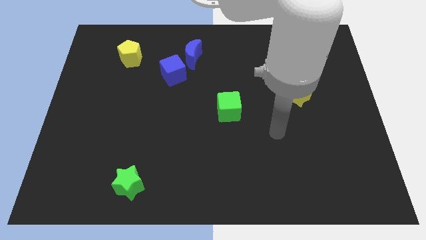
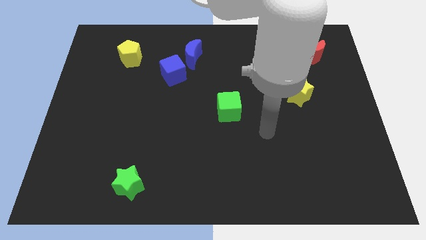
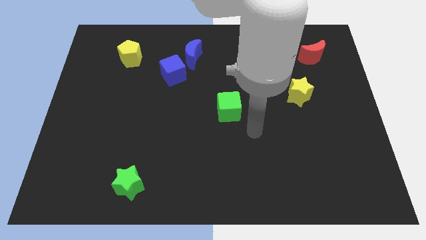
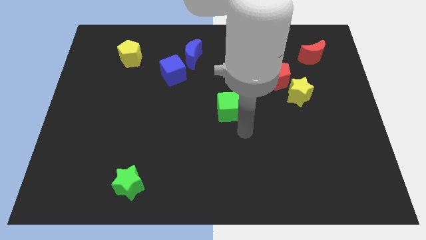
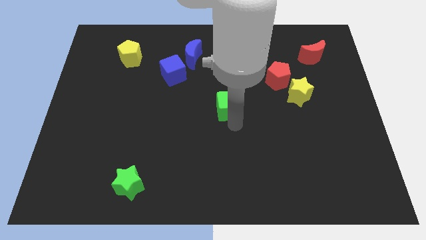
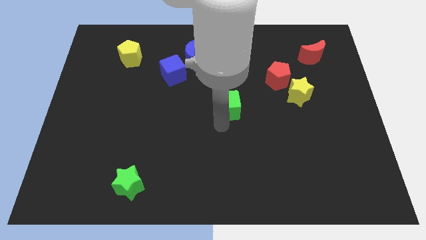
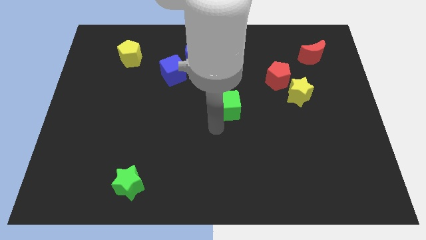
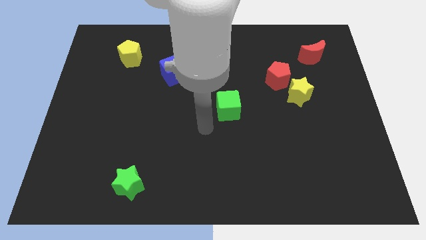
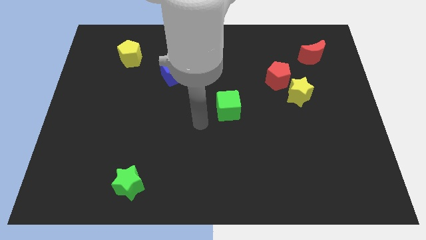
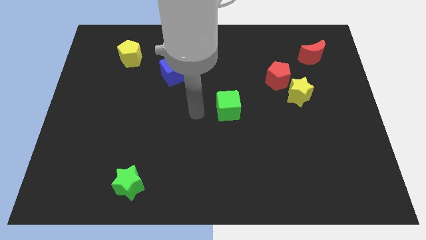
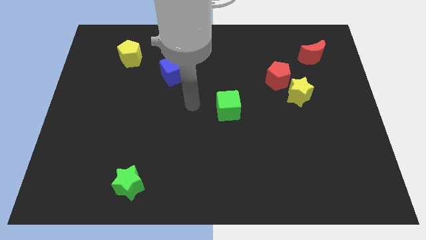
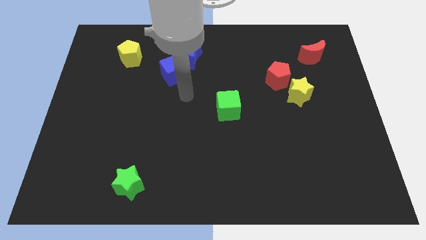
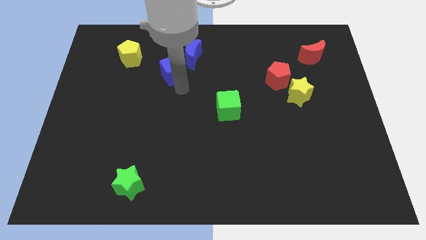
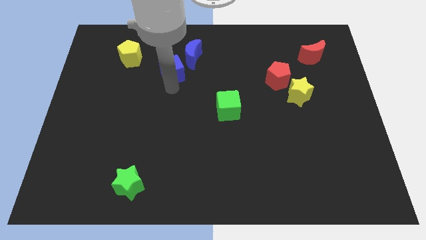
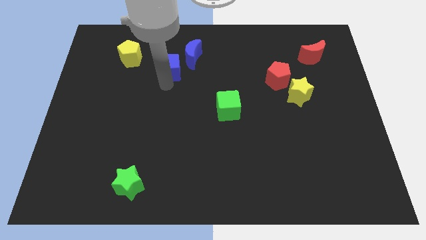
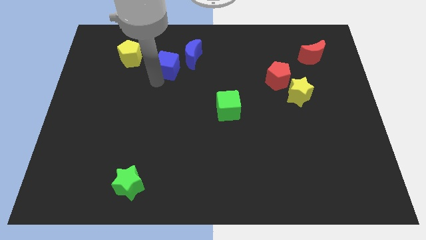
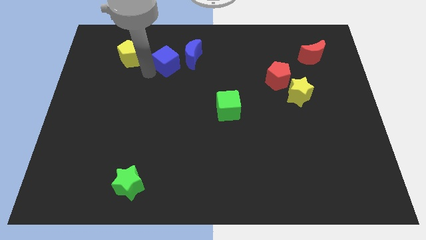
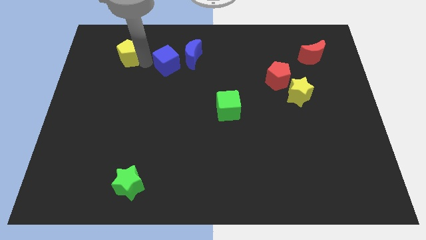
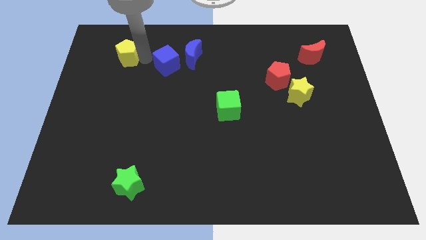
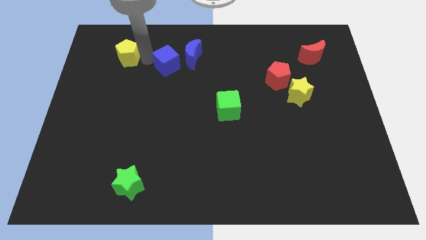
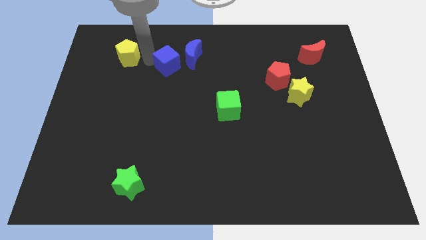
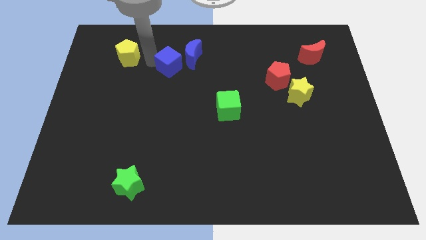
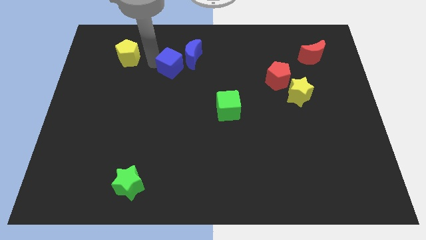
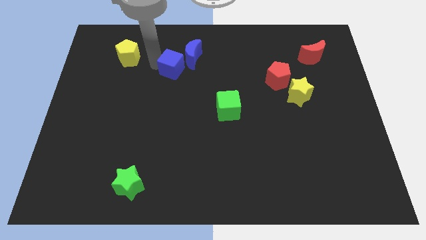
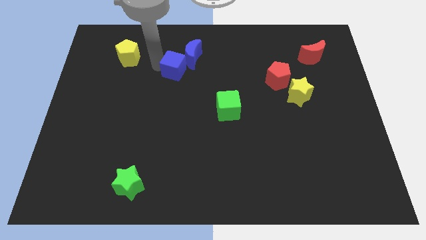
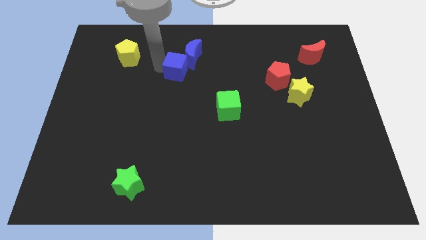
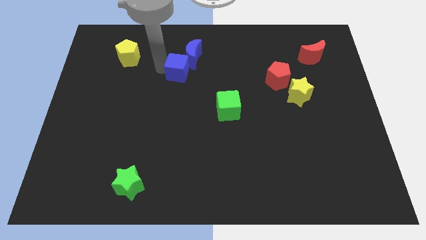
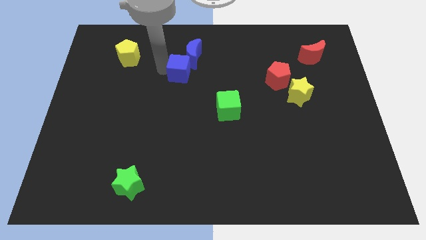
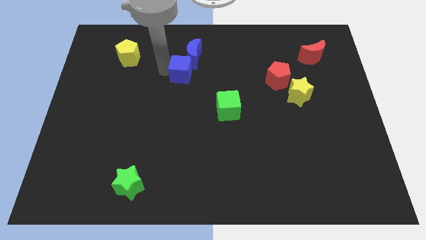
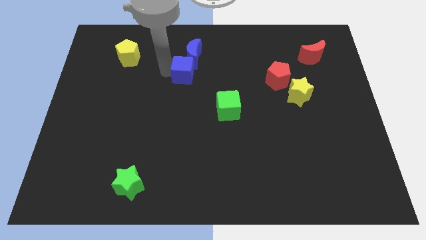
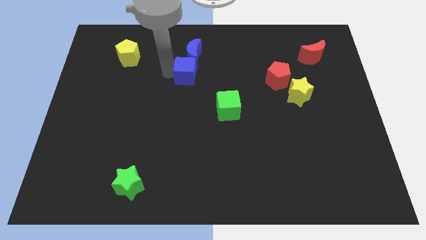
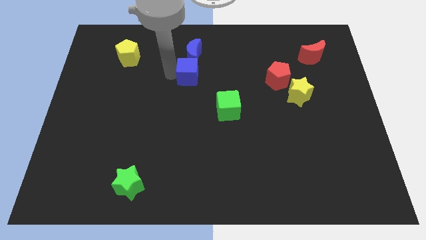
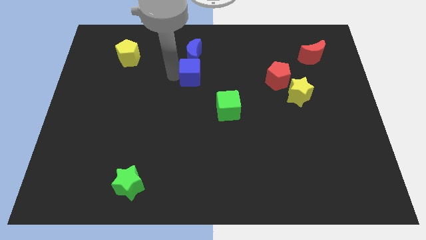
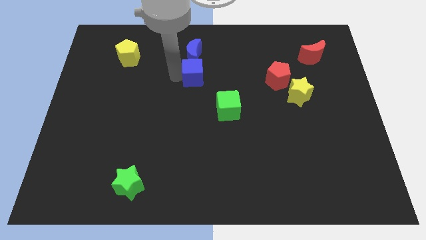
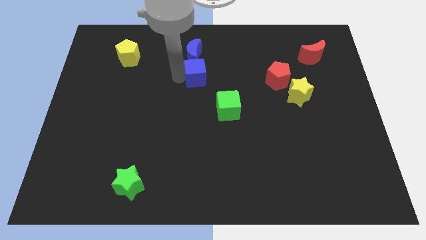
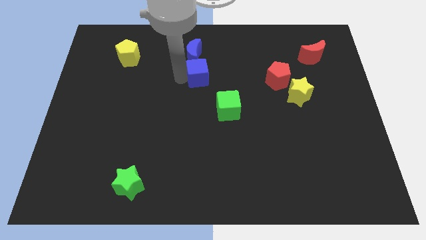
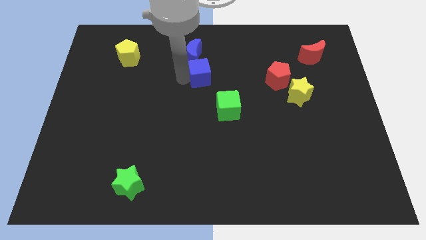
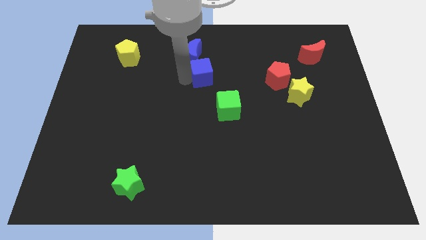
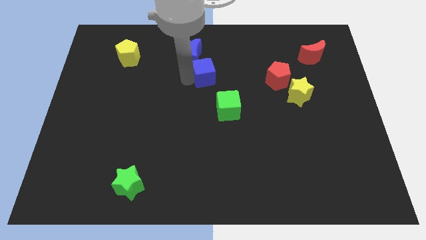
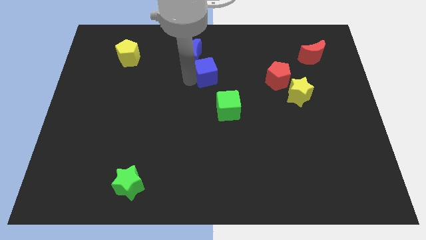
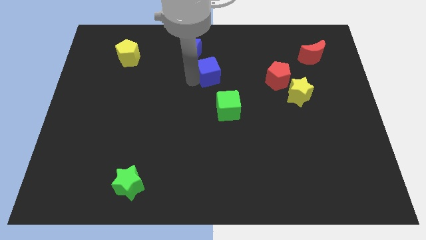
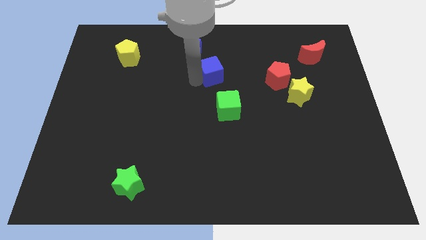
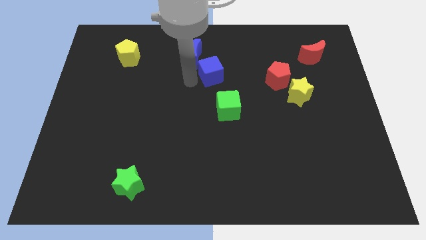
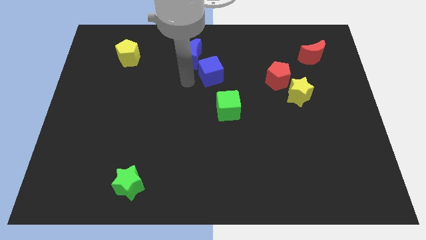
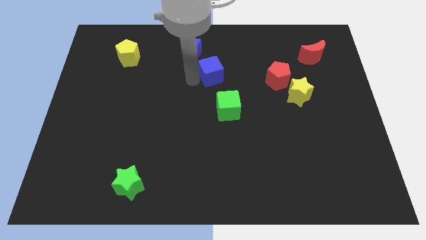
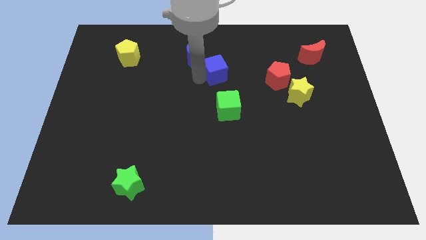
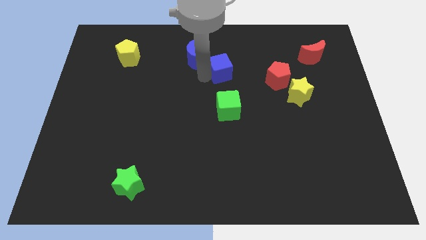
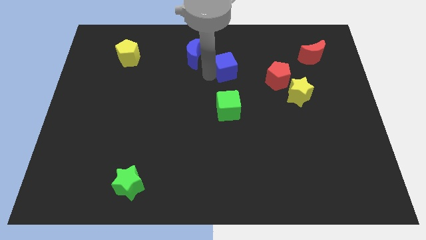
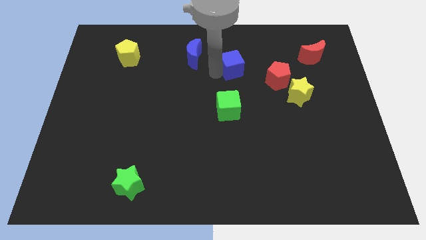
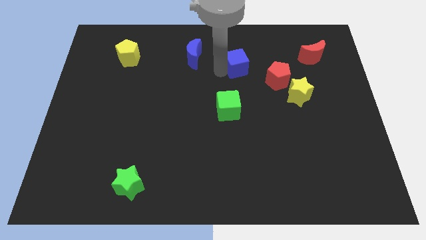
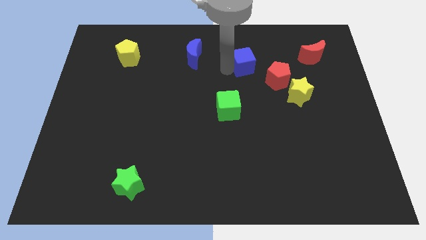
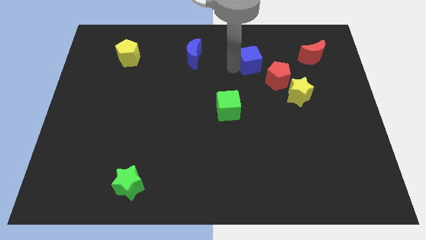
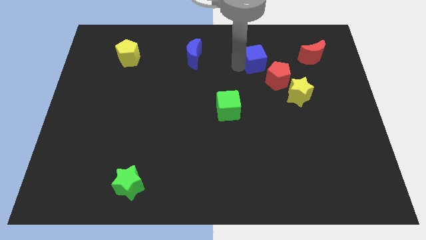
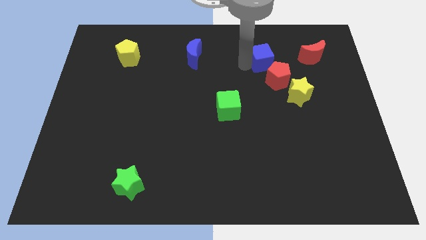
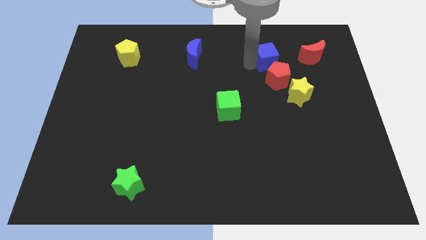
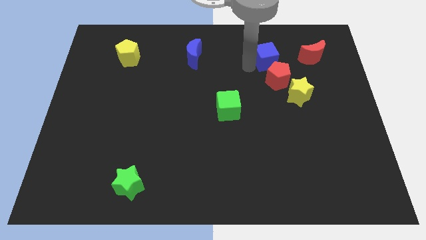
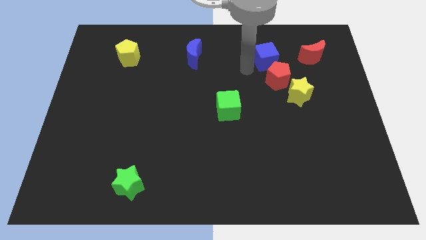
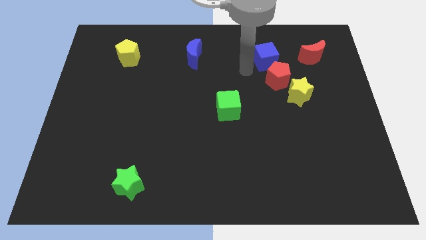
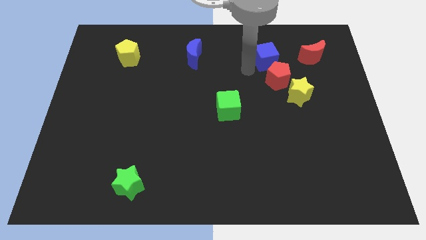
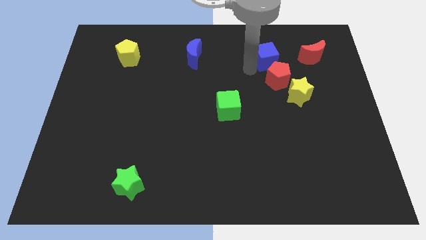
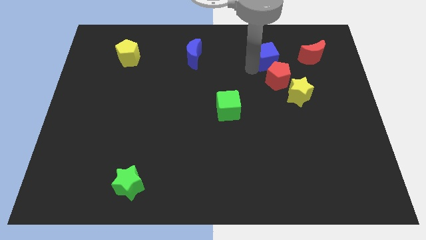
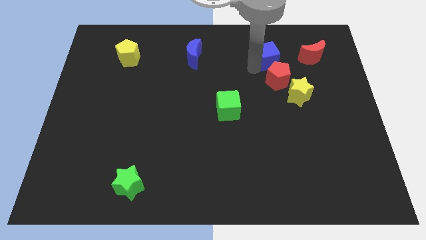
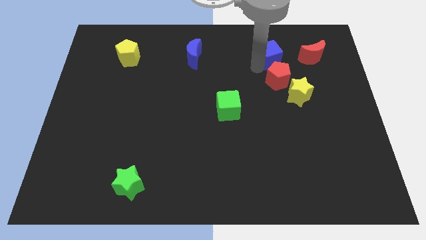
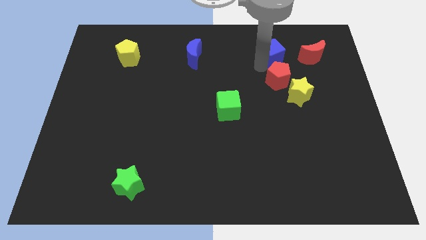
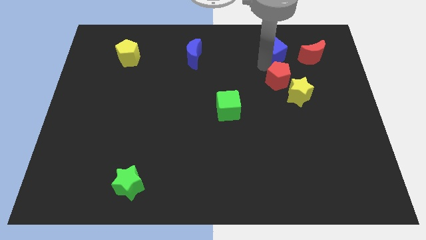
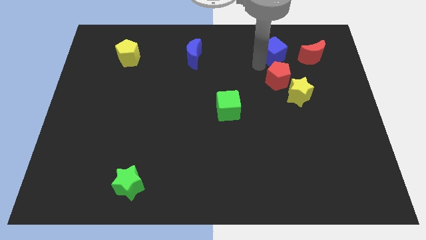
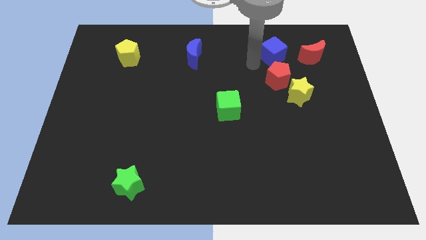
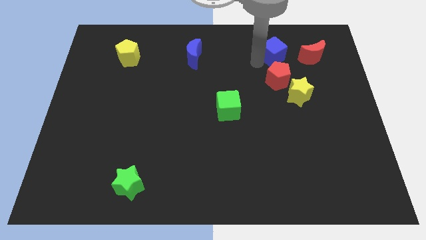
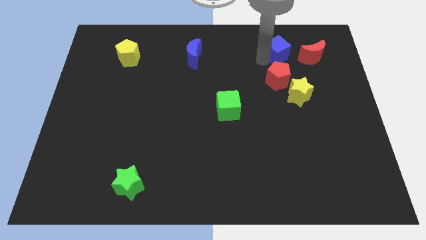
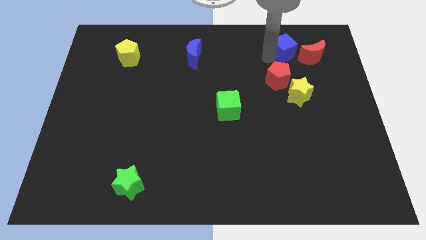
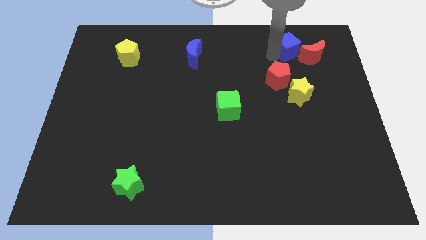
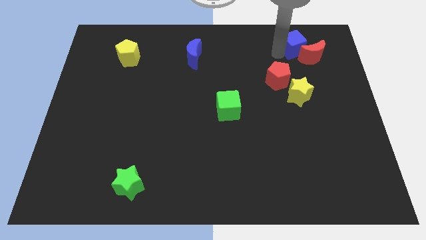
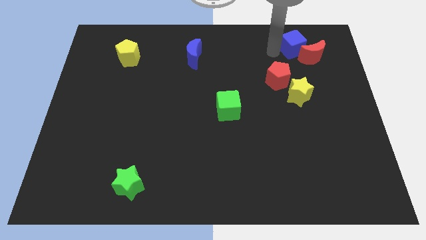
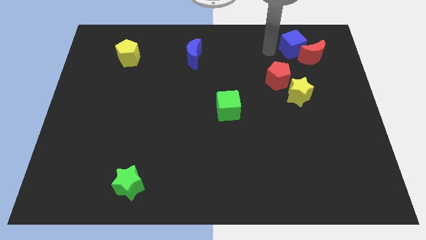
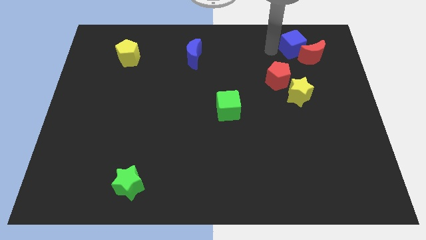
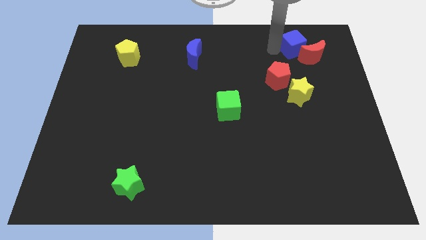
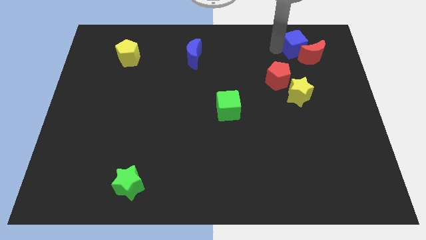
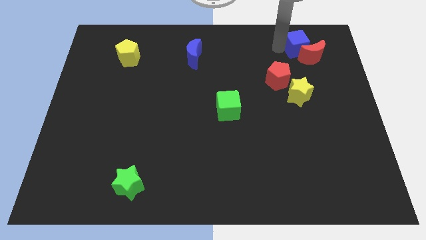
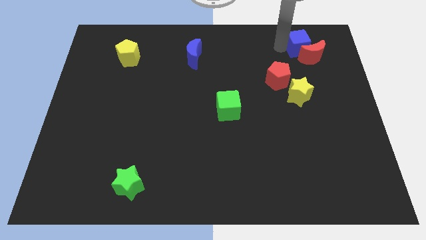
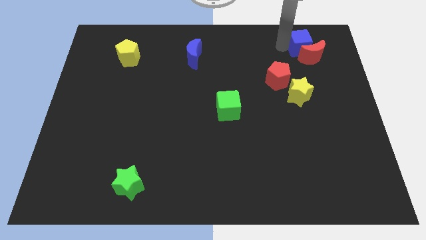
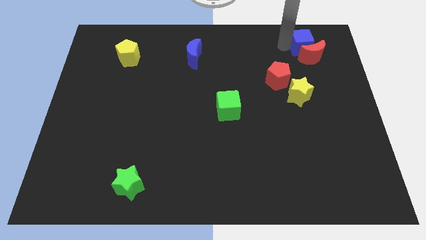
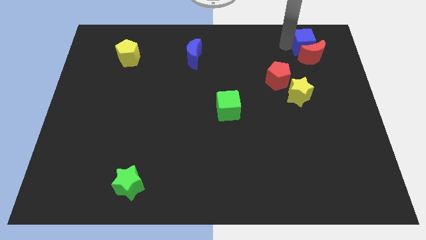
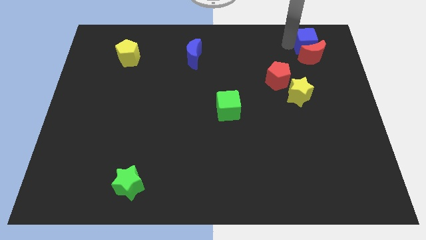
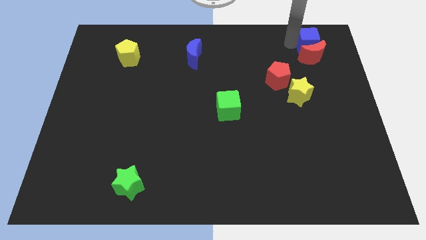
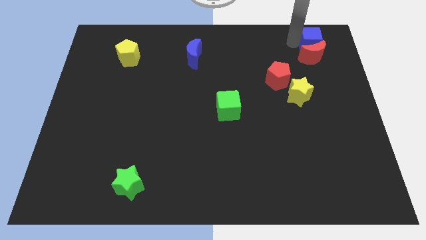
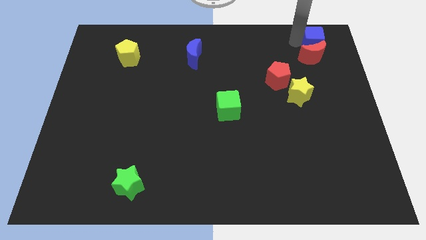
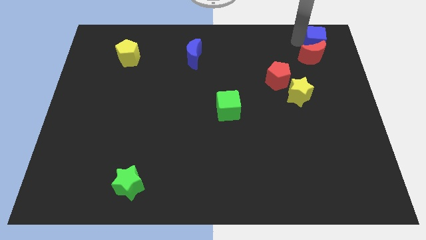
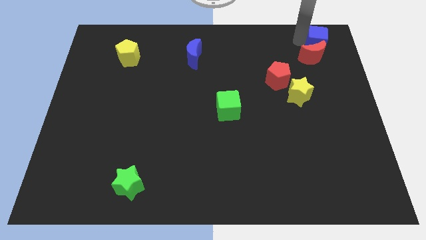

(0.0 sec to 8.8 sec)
slide the blue cube to the upper right corner
